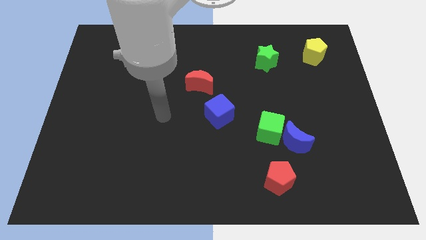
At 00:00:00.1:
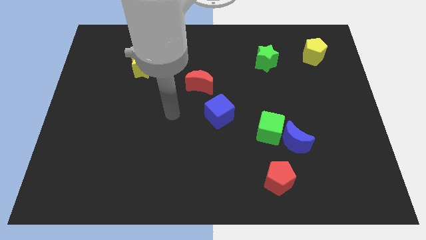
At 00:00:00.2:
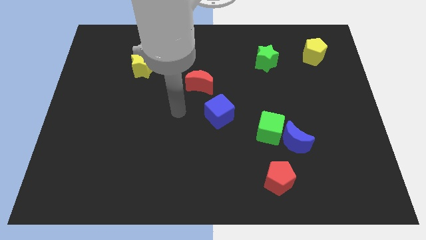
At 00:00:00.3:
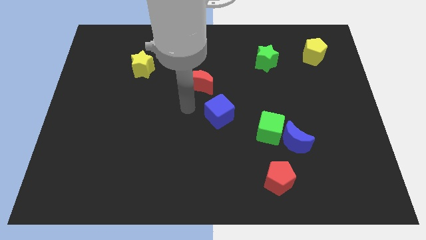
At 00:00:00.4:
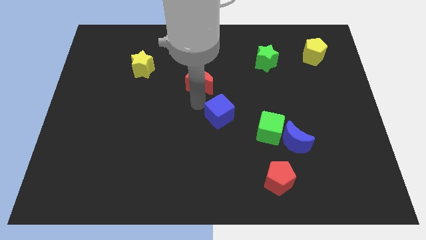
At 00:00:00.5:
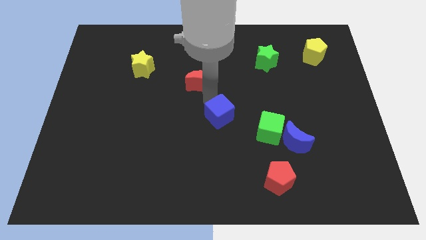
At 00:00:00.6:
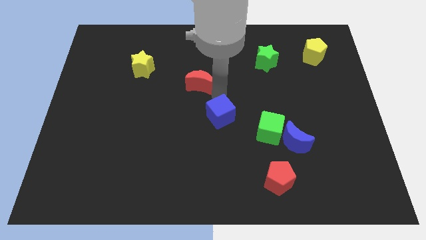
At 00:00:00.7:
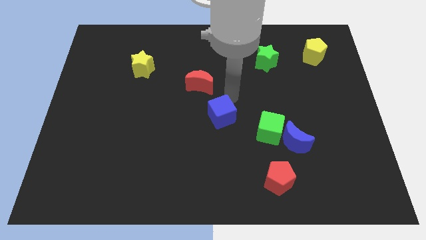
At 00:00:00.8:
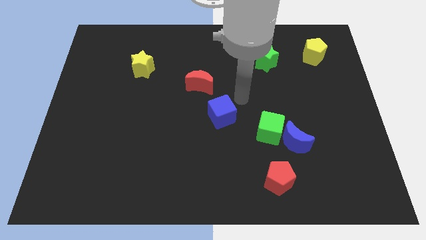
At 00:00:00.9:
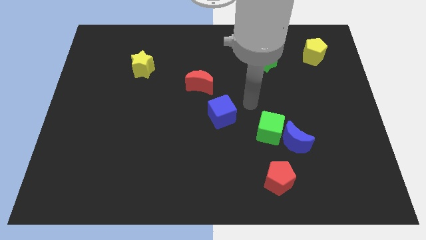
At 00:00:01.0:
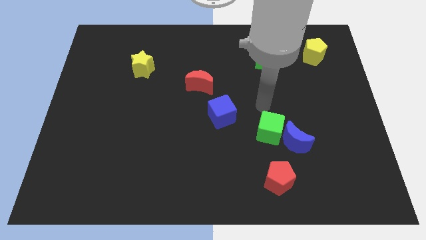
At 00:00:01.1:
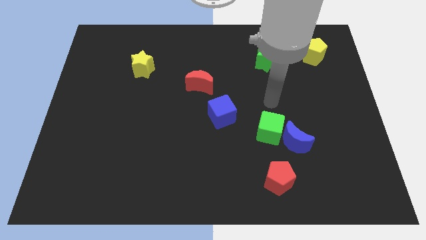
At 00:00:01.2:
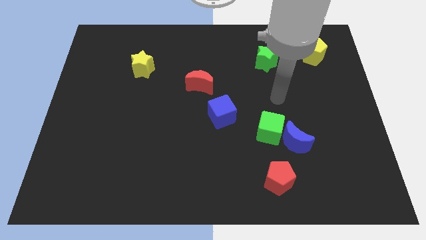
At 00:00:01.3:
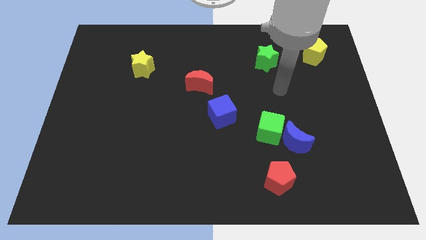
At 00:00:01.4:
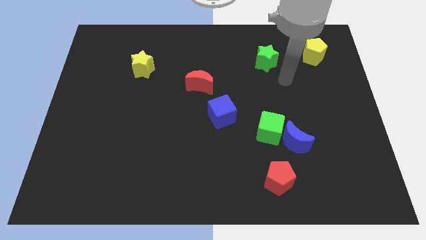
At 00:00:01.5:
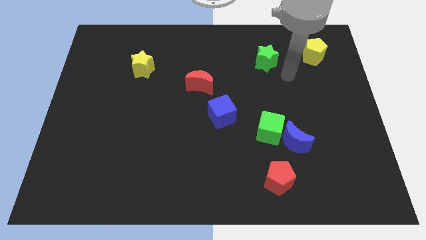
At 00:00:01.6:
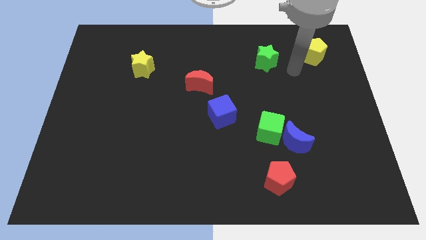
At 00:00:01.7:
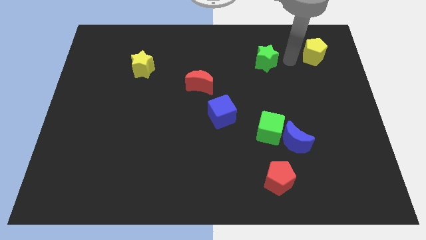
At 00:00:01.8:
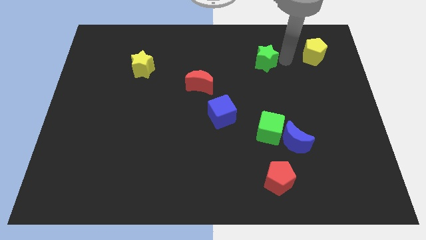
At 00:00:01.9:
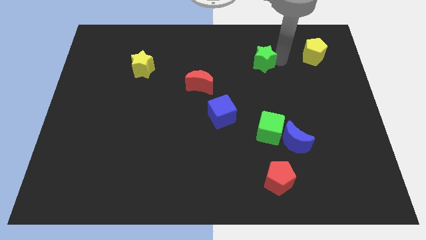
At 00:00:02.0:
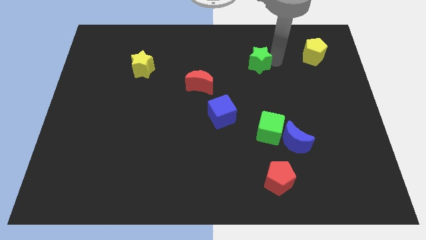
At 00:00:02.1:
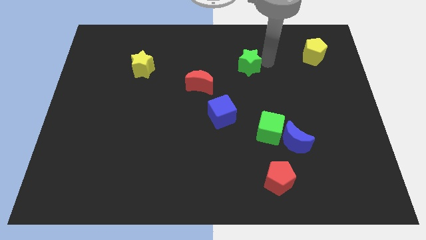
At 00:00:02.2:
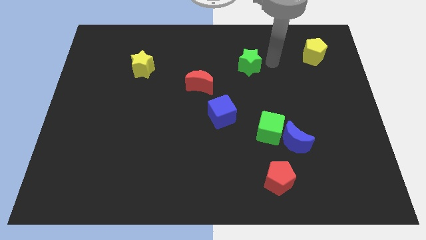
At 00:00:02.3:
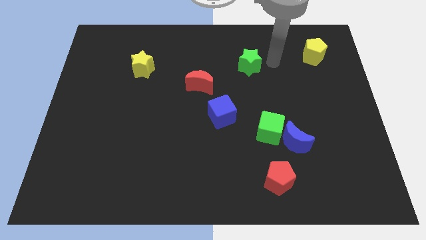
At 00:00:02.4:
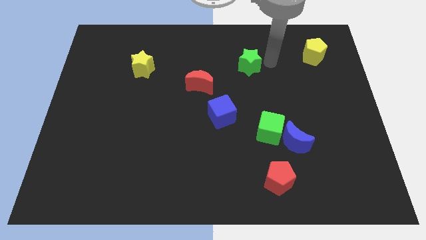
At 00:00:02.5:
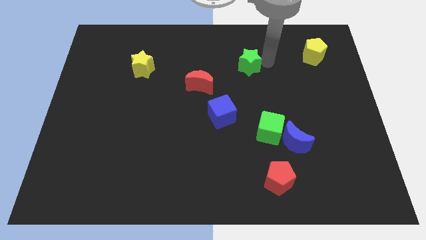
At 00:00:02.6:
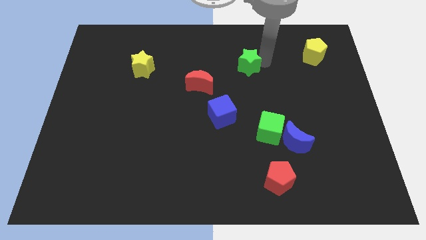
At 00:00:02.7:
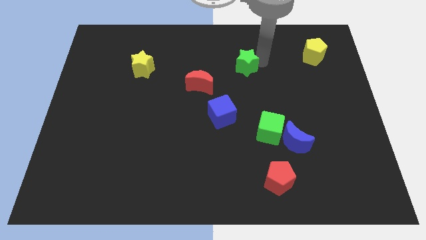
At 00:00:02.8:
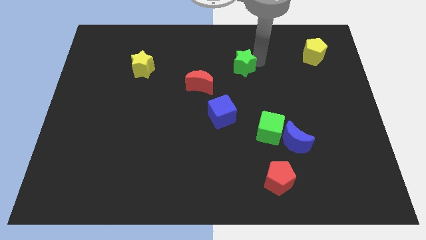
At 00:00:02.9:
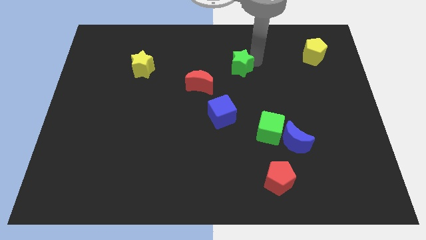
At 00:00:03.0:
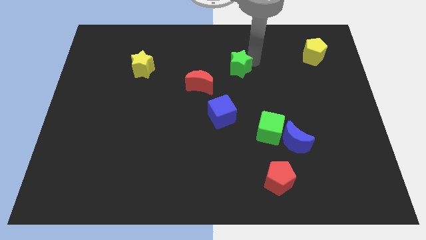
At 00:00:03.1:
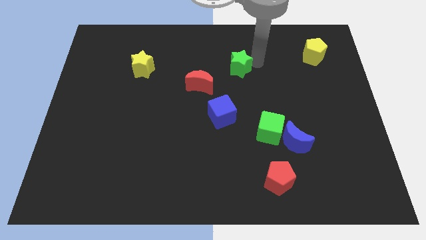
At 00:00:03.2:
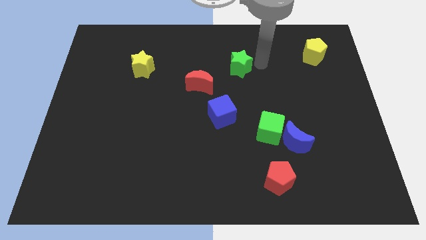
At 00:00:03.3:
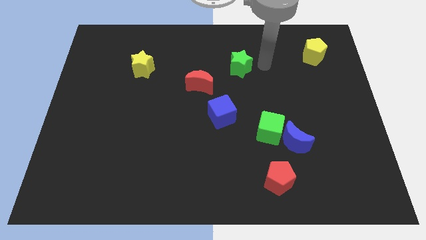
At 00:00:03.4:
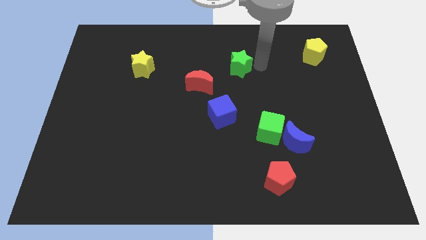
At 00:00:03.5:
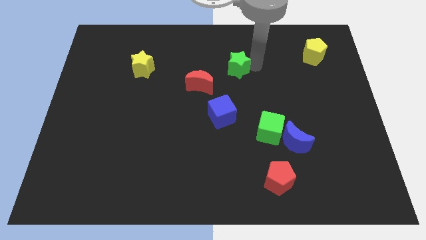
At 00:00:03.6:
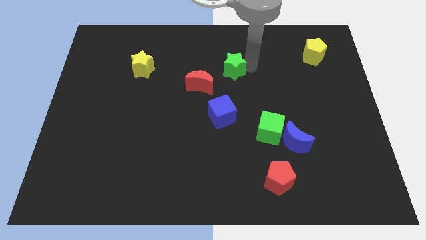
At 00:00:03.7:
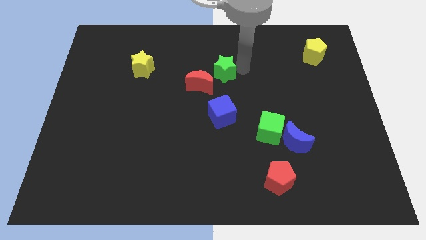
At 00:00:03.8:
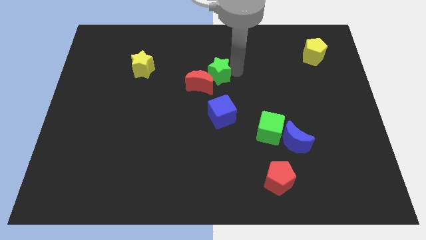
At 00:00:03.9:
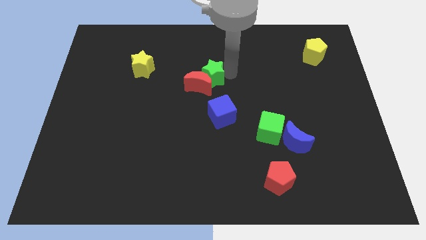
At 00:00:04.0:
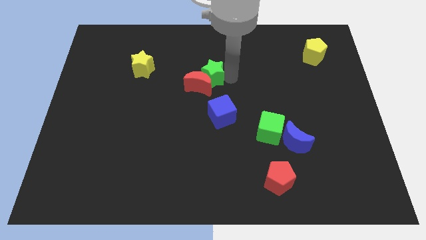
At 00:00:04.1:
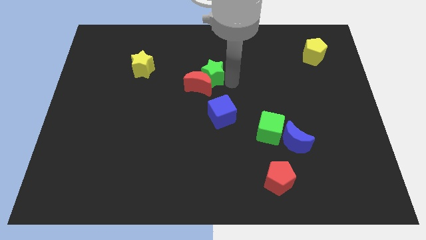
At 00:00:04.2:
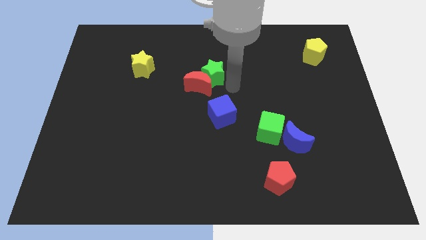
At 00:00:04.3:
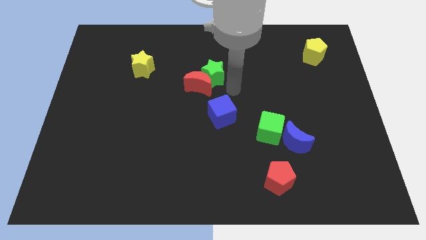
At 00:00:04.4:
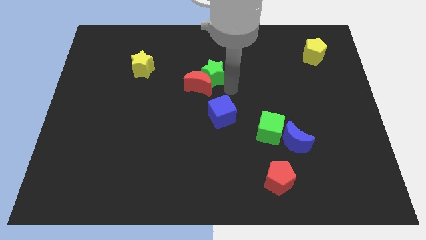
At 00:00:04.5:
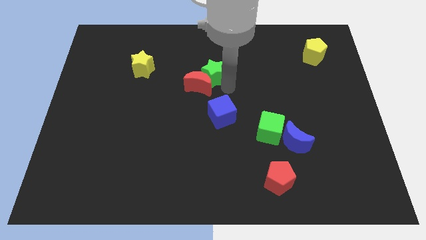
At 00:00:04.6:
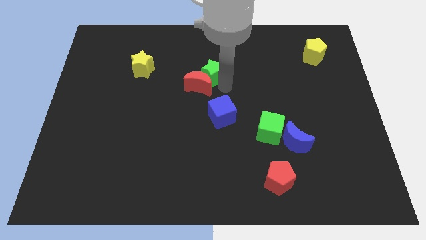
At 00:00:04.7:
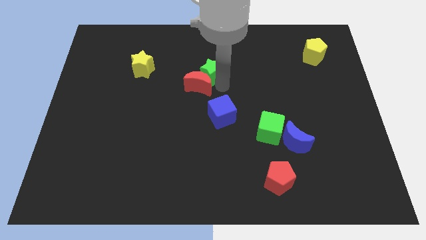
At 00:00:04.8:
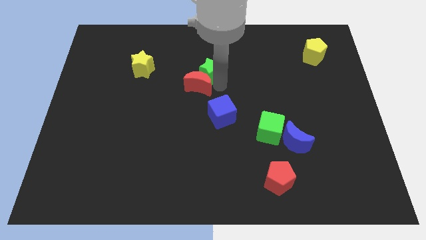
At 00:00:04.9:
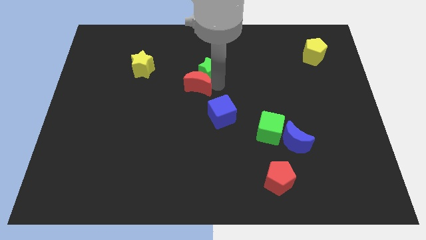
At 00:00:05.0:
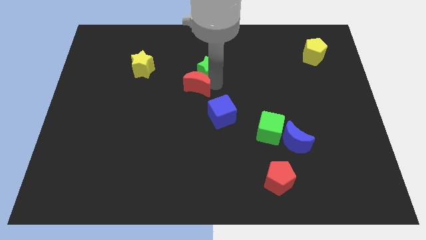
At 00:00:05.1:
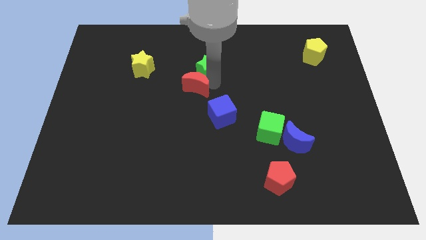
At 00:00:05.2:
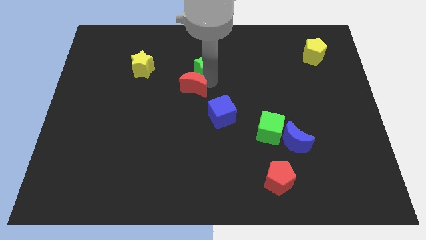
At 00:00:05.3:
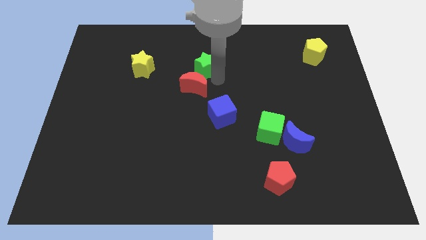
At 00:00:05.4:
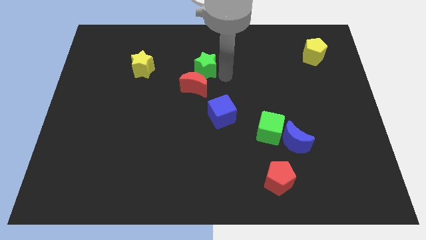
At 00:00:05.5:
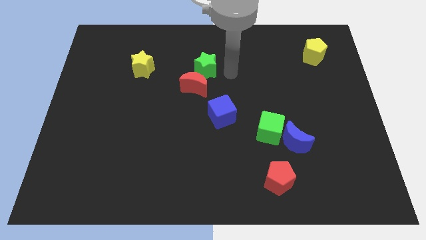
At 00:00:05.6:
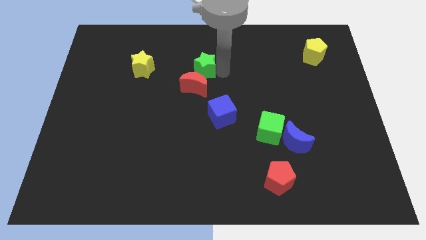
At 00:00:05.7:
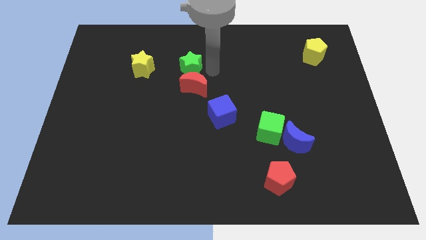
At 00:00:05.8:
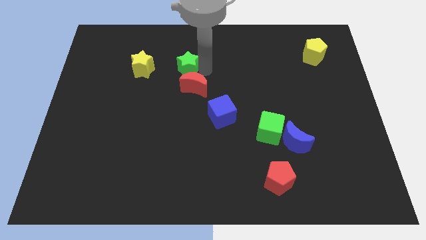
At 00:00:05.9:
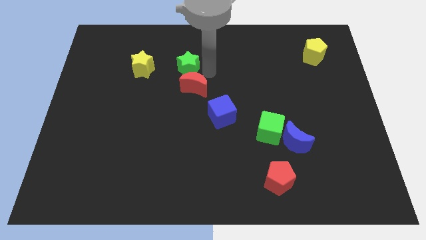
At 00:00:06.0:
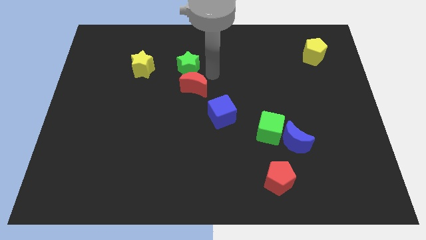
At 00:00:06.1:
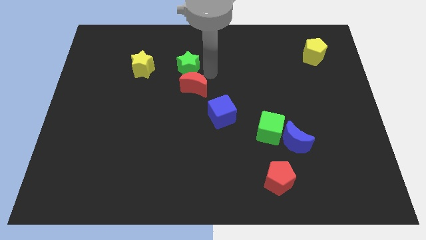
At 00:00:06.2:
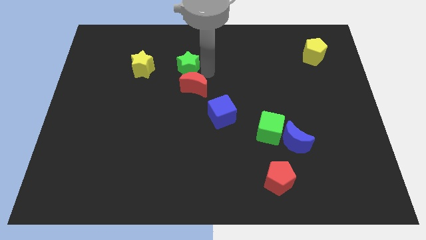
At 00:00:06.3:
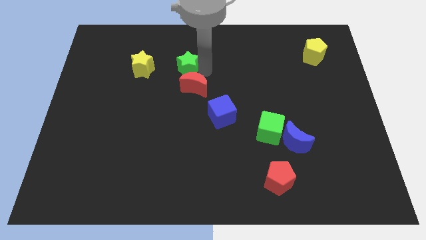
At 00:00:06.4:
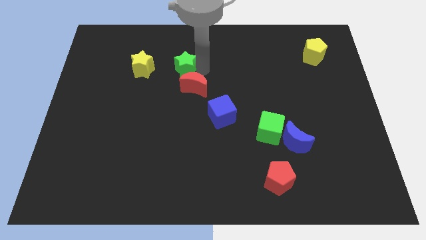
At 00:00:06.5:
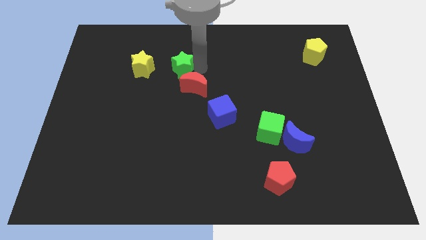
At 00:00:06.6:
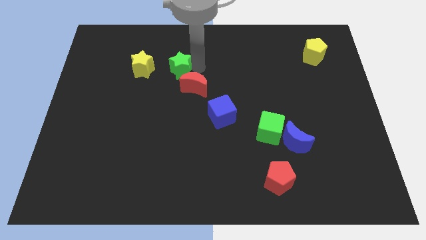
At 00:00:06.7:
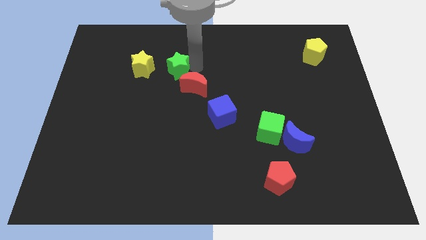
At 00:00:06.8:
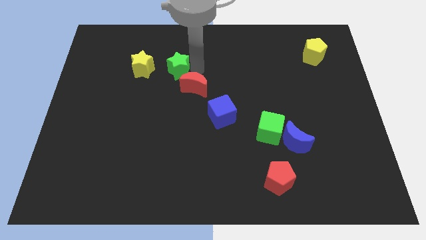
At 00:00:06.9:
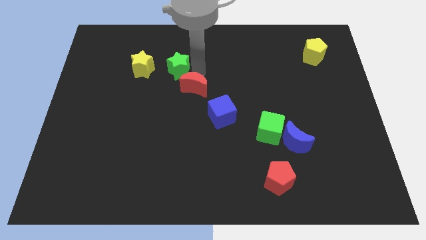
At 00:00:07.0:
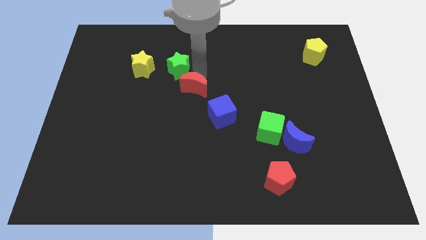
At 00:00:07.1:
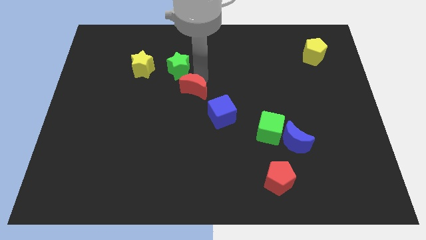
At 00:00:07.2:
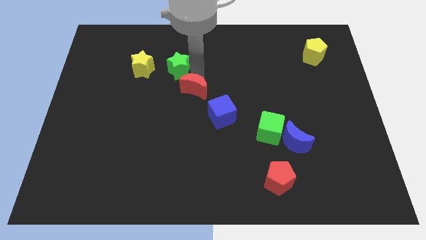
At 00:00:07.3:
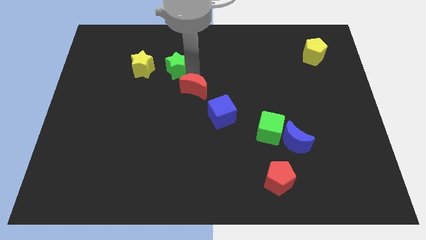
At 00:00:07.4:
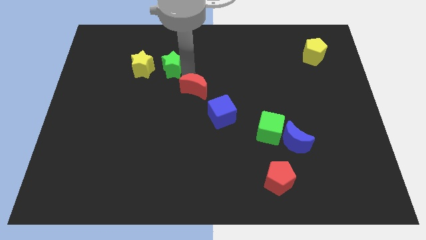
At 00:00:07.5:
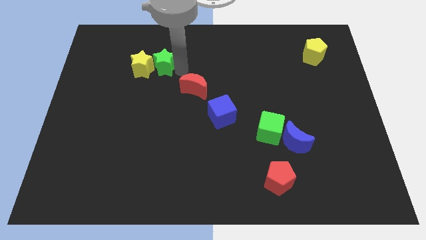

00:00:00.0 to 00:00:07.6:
move the green star towards the yellow star
